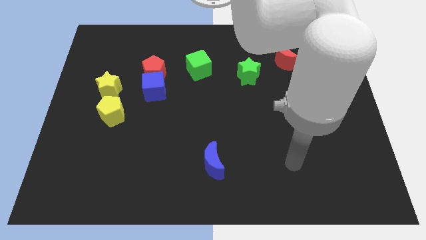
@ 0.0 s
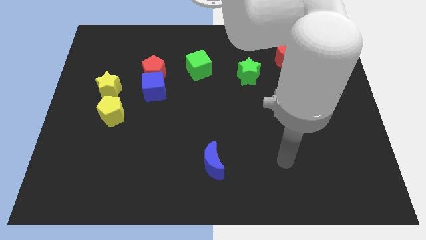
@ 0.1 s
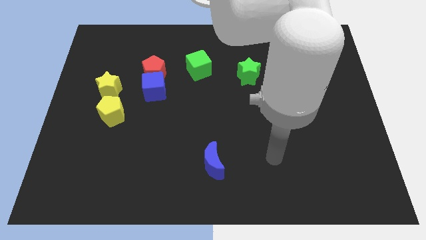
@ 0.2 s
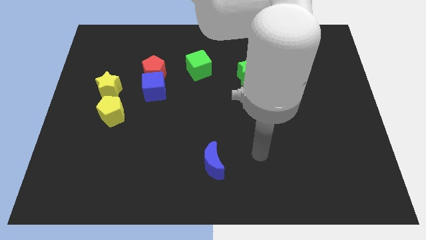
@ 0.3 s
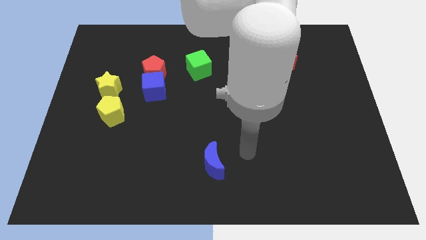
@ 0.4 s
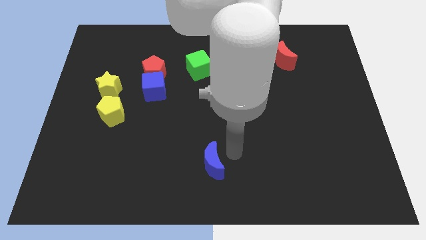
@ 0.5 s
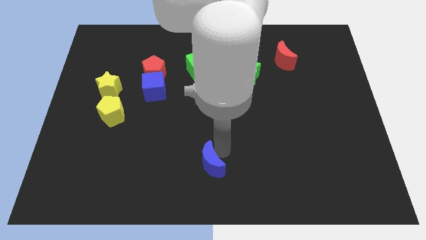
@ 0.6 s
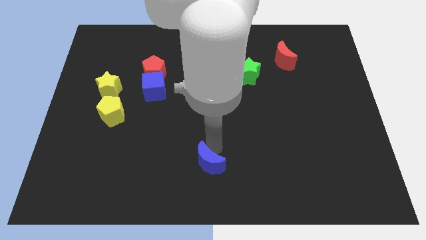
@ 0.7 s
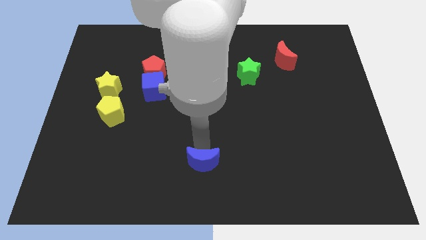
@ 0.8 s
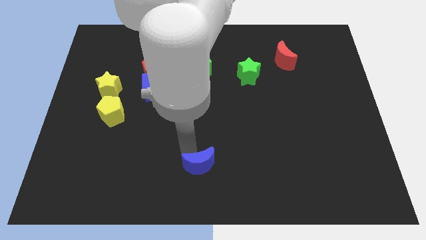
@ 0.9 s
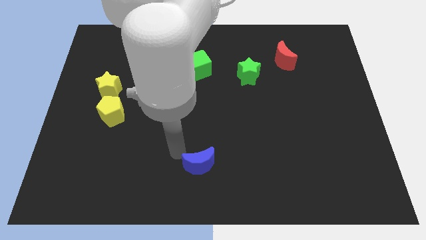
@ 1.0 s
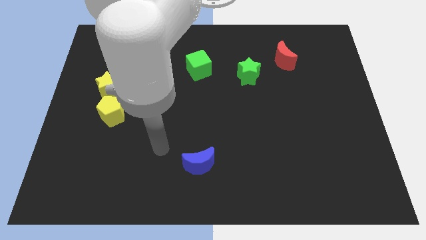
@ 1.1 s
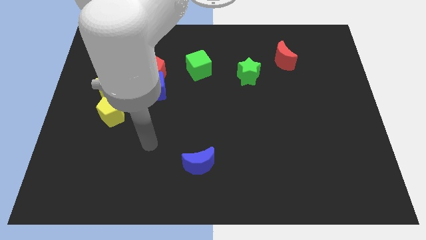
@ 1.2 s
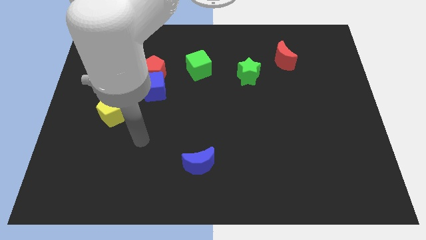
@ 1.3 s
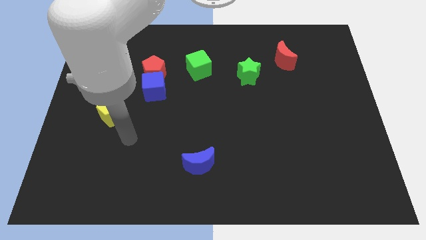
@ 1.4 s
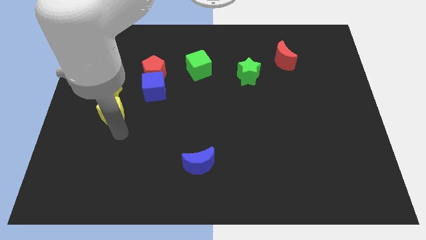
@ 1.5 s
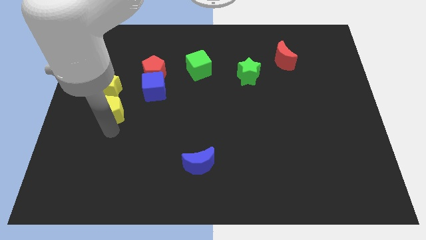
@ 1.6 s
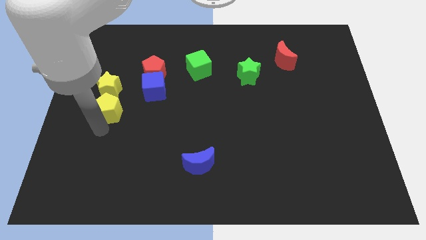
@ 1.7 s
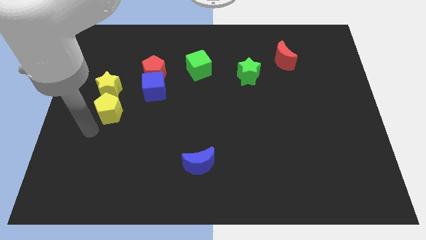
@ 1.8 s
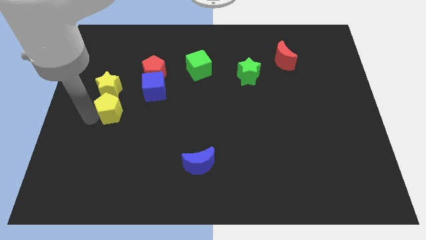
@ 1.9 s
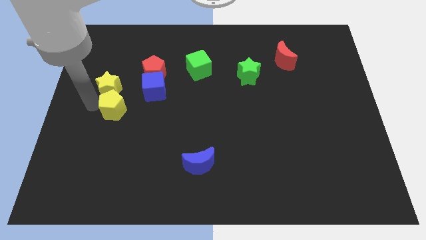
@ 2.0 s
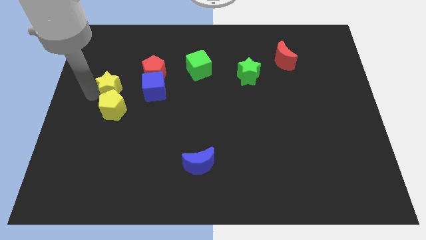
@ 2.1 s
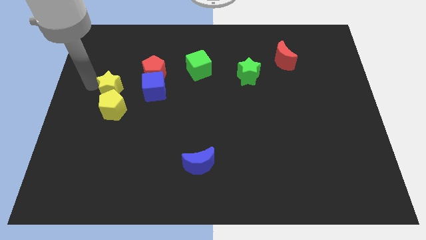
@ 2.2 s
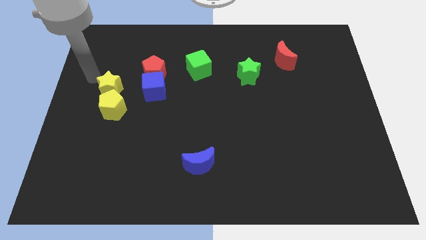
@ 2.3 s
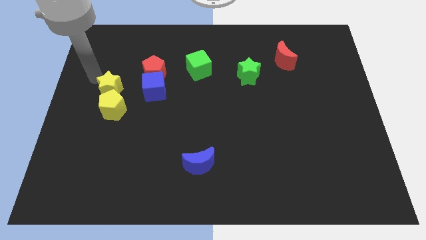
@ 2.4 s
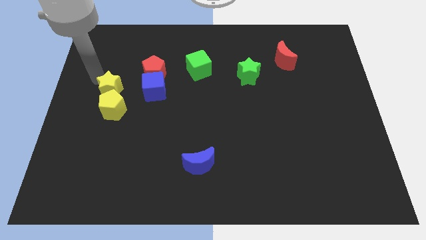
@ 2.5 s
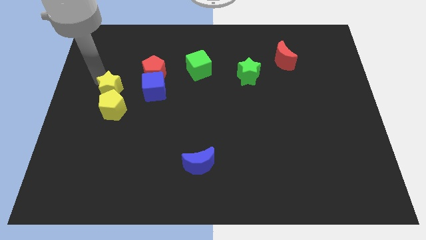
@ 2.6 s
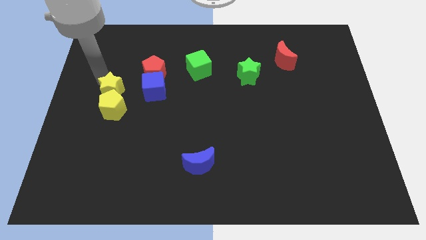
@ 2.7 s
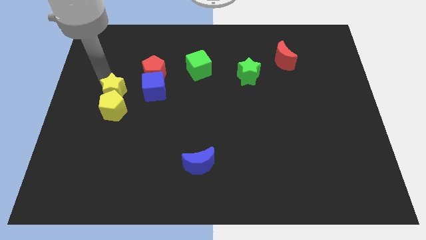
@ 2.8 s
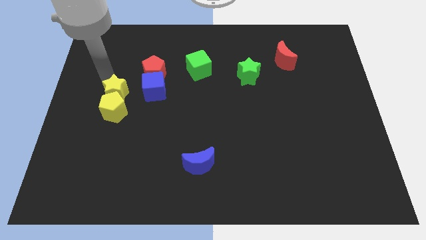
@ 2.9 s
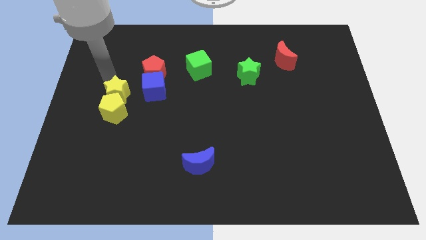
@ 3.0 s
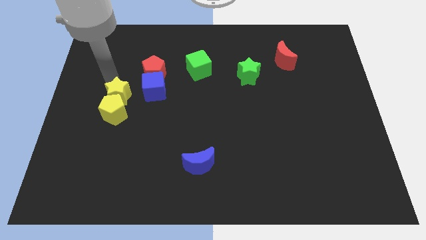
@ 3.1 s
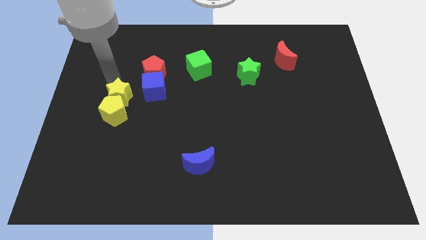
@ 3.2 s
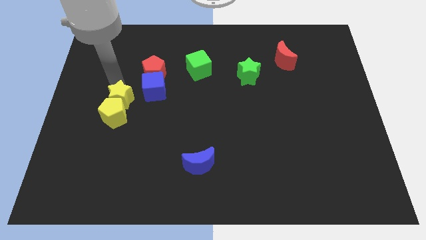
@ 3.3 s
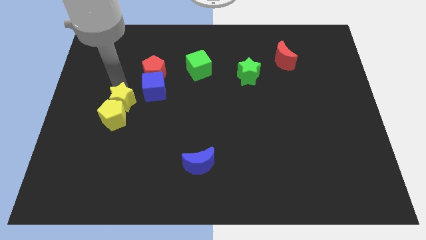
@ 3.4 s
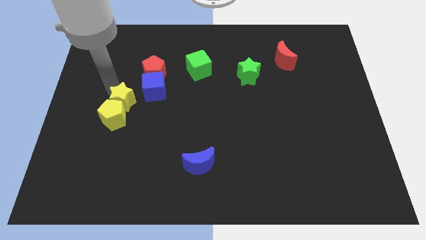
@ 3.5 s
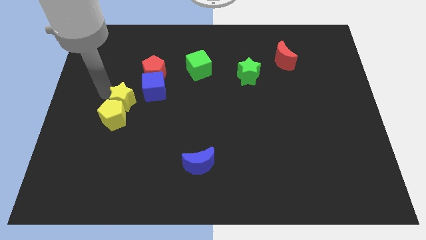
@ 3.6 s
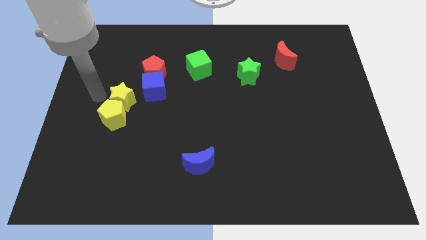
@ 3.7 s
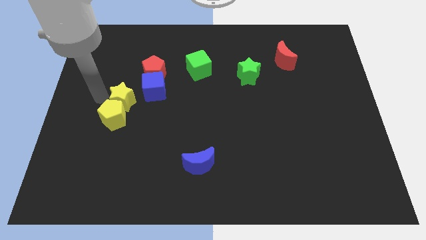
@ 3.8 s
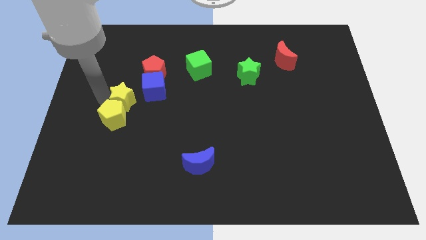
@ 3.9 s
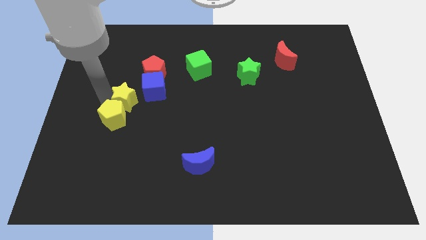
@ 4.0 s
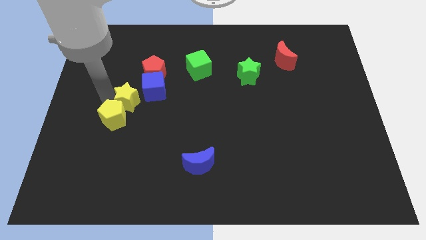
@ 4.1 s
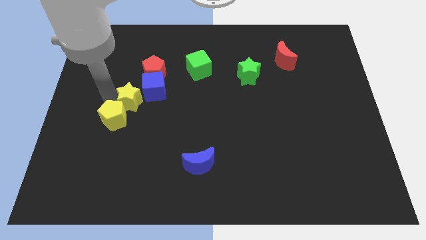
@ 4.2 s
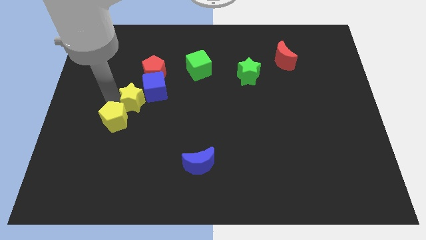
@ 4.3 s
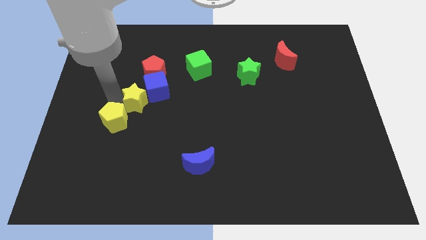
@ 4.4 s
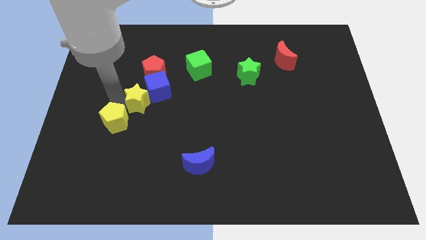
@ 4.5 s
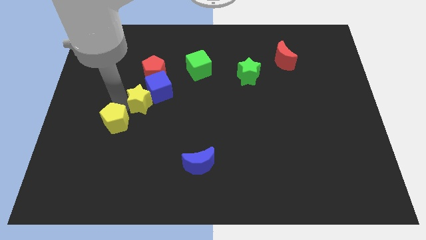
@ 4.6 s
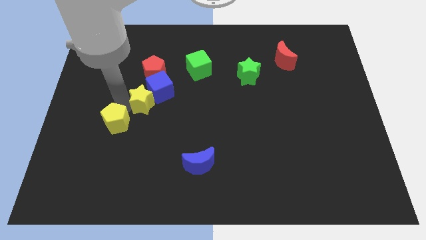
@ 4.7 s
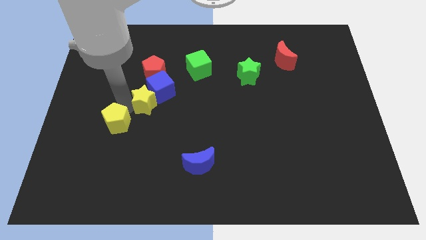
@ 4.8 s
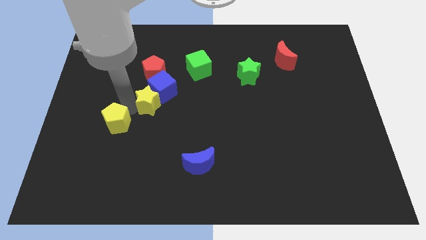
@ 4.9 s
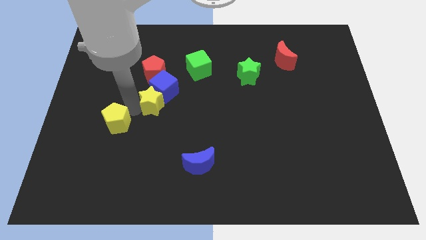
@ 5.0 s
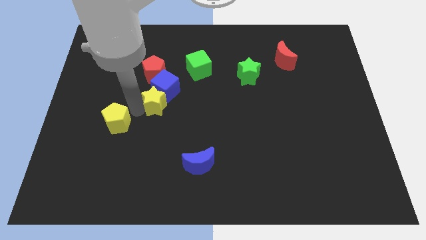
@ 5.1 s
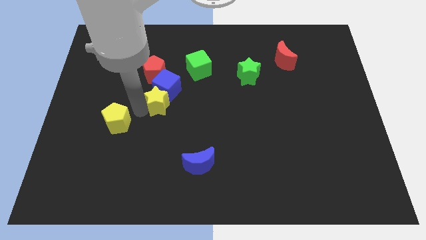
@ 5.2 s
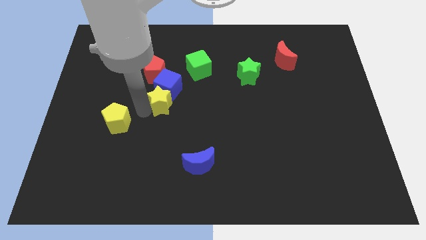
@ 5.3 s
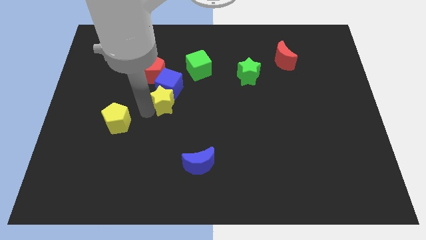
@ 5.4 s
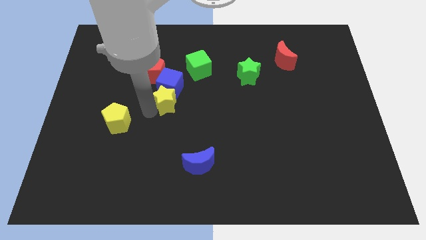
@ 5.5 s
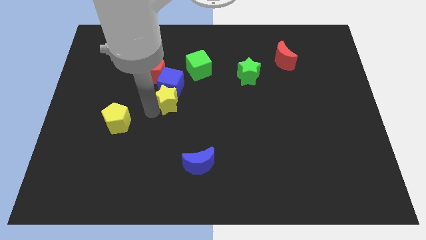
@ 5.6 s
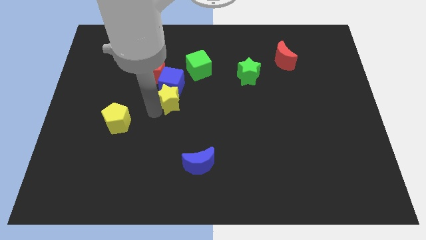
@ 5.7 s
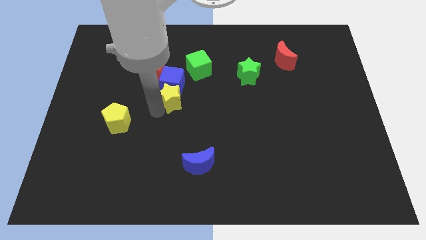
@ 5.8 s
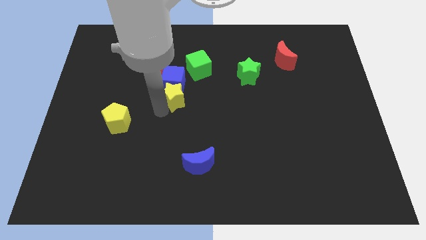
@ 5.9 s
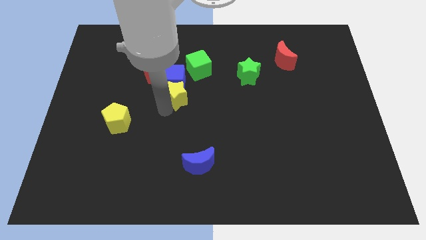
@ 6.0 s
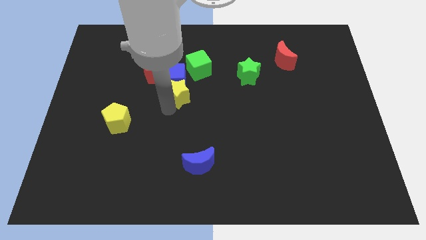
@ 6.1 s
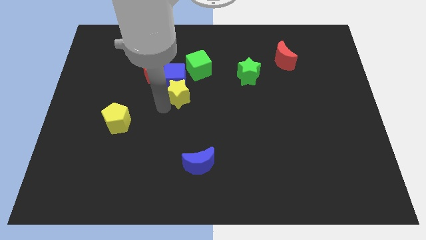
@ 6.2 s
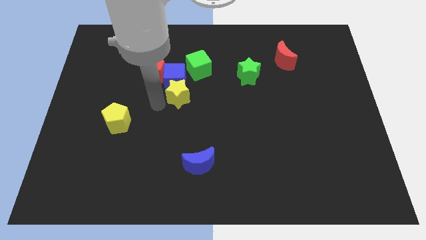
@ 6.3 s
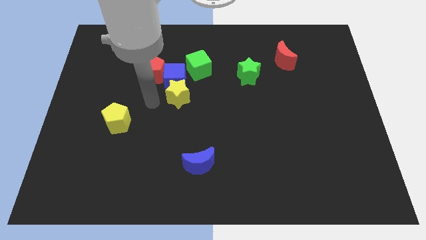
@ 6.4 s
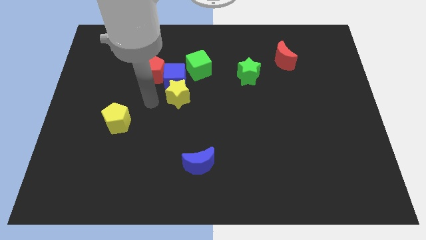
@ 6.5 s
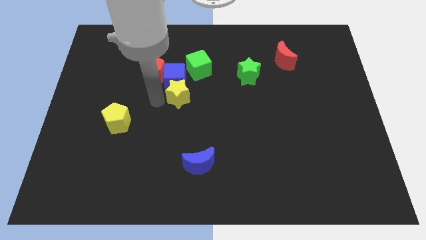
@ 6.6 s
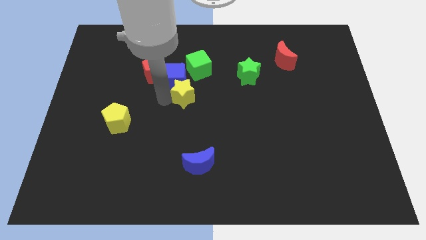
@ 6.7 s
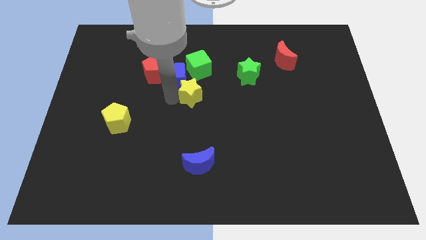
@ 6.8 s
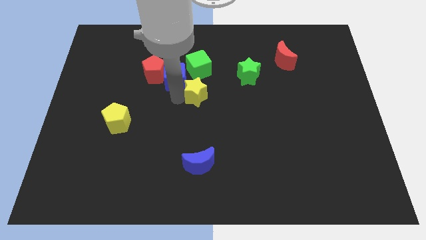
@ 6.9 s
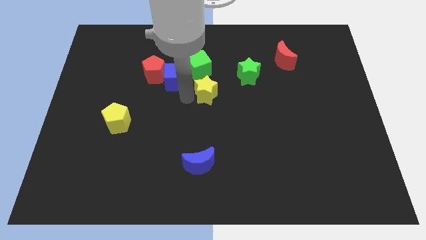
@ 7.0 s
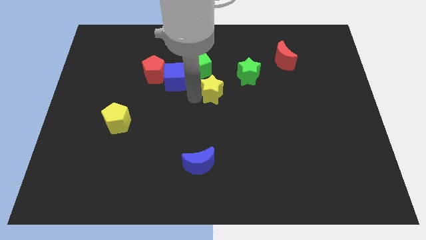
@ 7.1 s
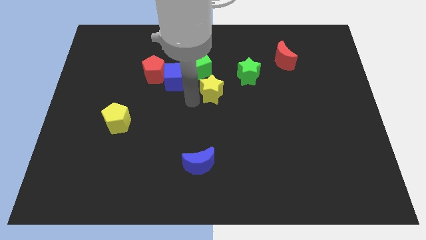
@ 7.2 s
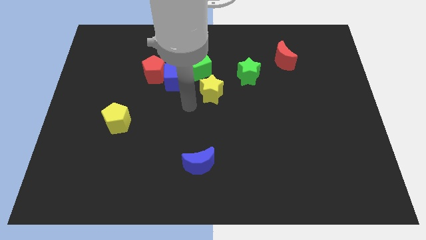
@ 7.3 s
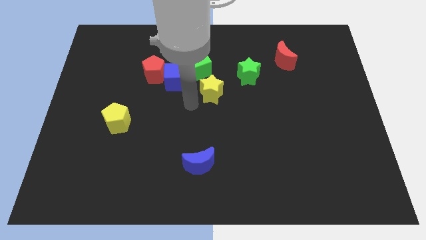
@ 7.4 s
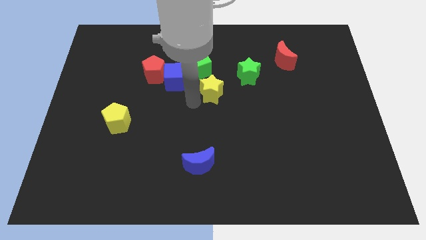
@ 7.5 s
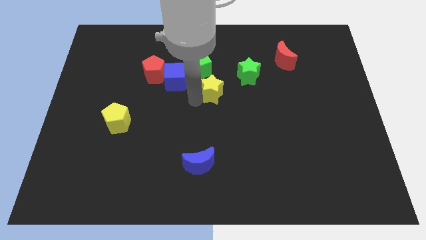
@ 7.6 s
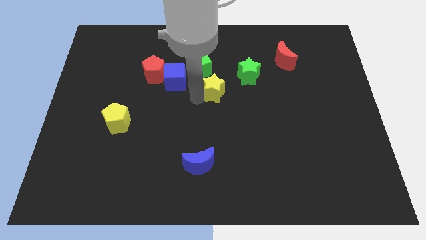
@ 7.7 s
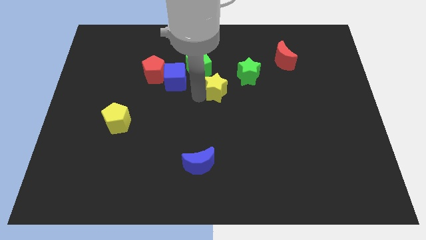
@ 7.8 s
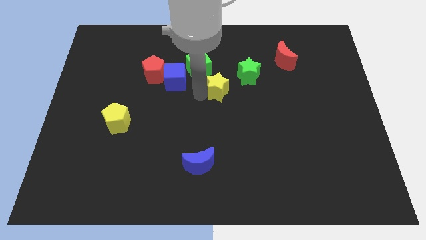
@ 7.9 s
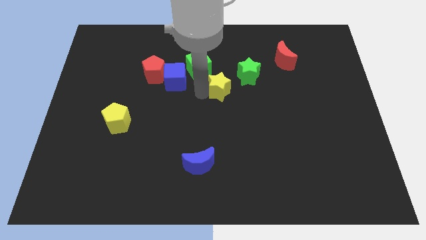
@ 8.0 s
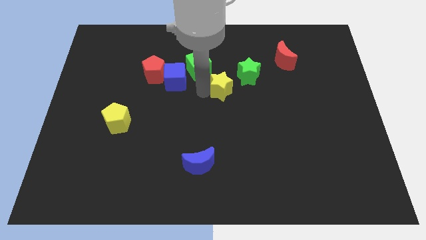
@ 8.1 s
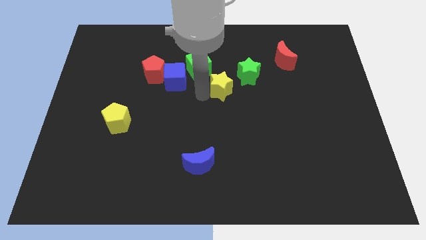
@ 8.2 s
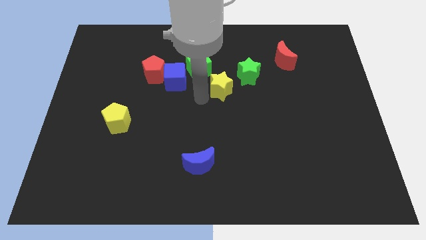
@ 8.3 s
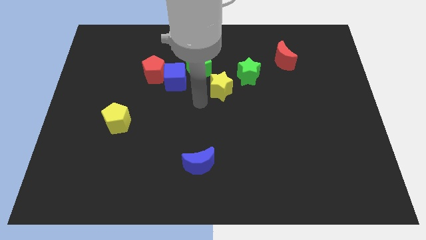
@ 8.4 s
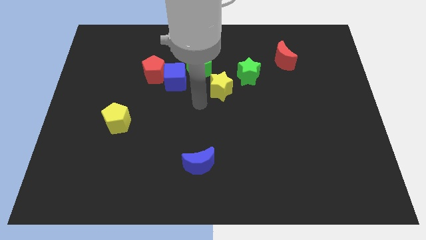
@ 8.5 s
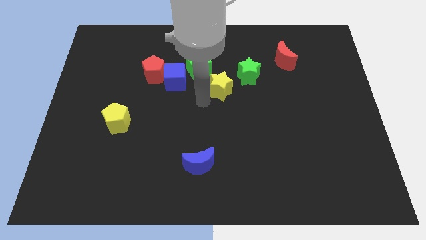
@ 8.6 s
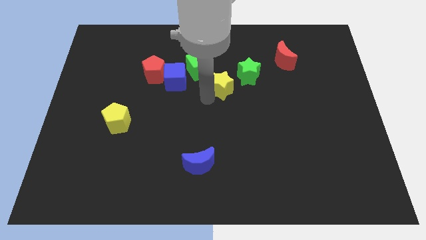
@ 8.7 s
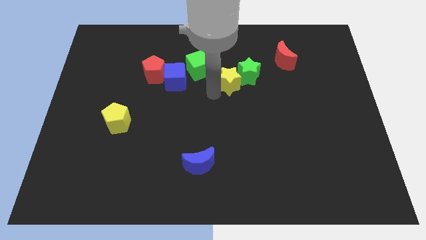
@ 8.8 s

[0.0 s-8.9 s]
slide the yellow star next to the green star
